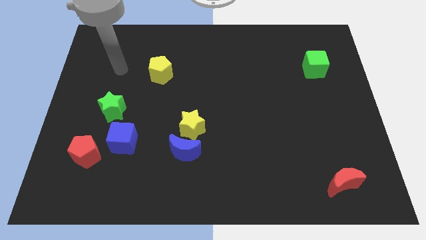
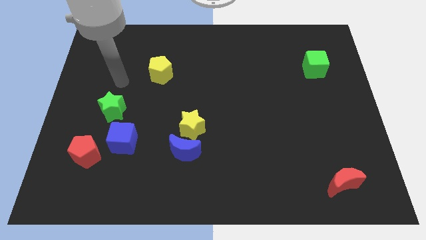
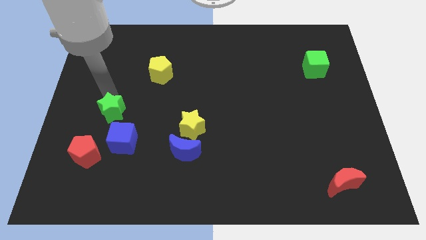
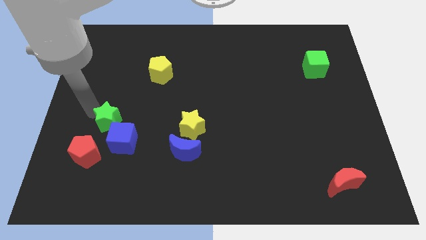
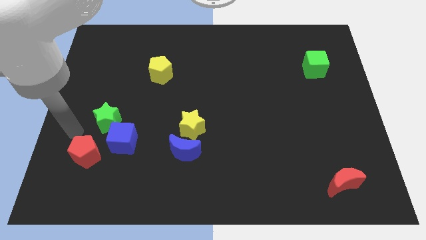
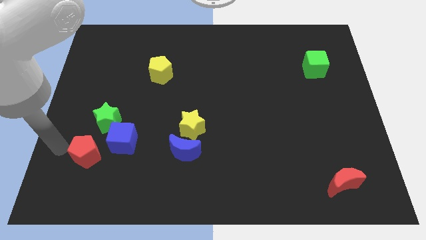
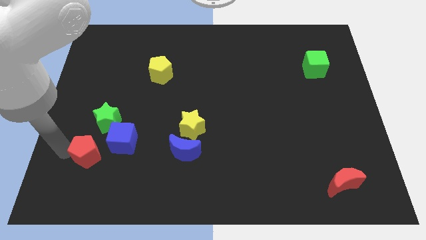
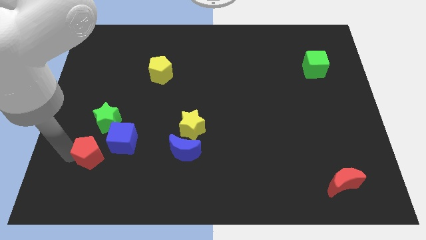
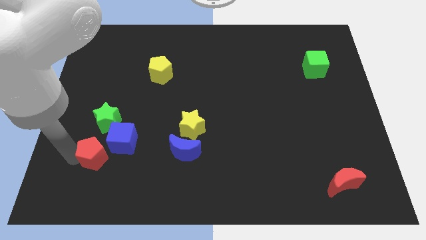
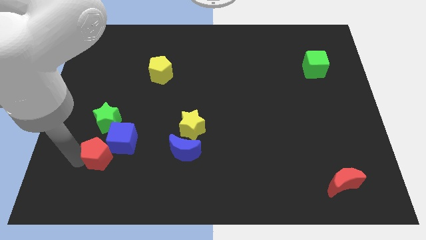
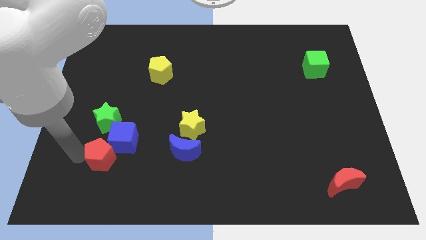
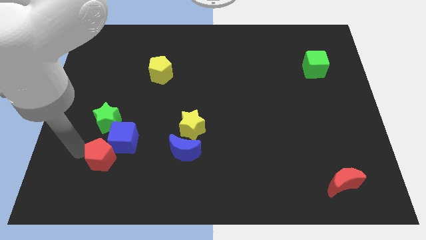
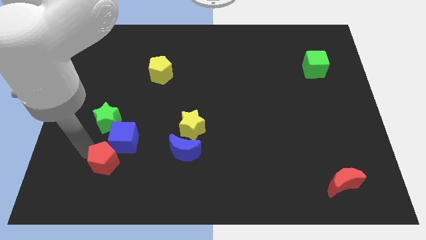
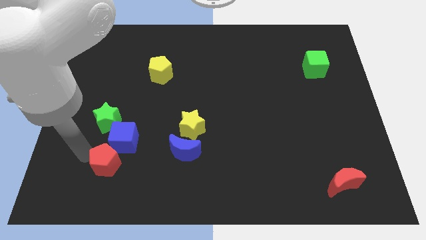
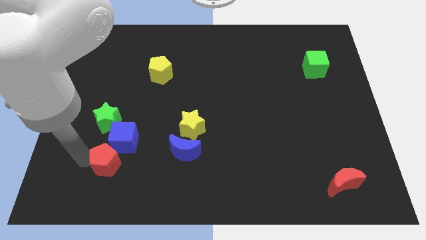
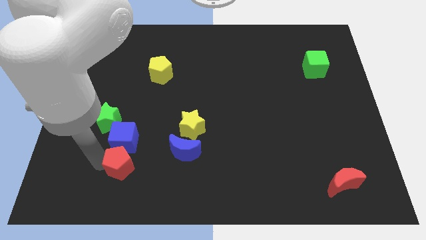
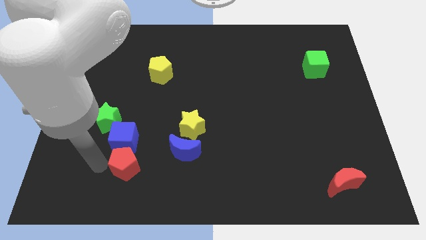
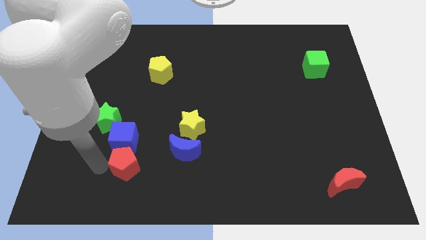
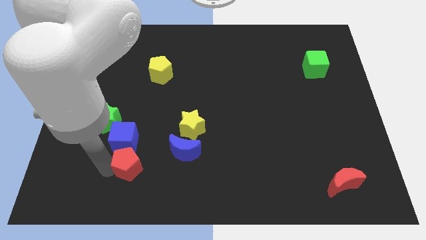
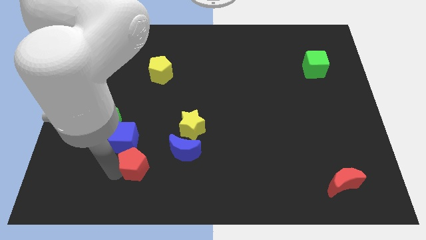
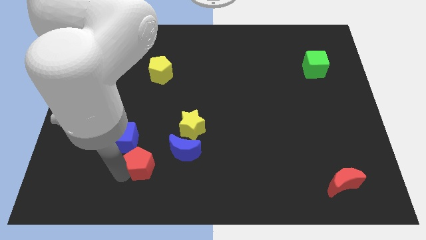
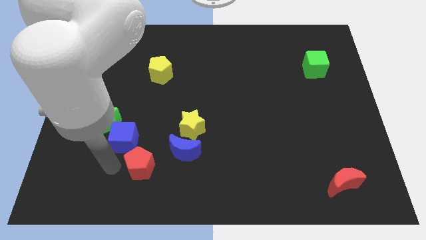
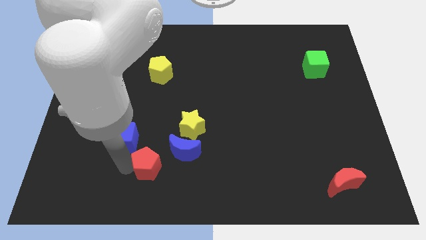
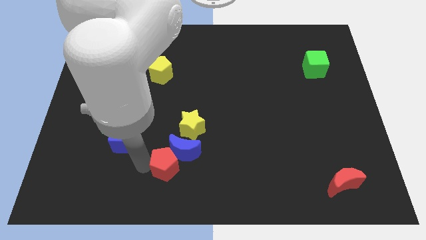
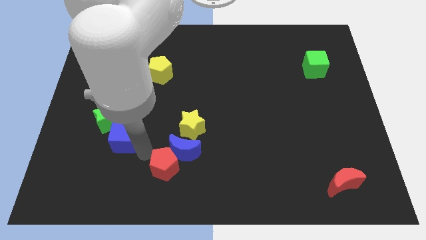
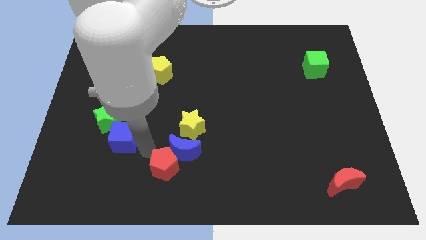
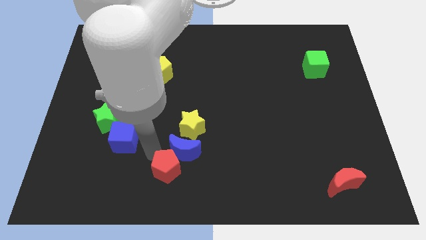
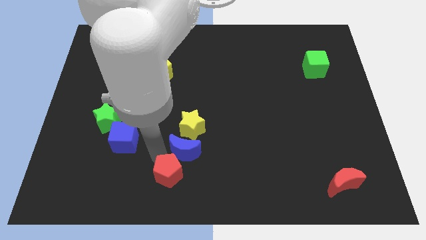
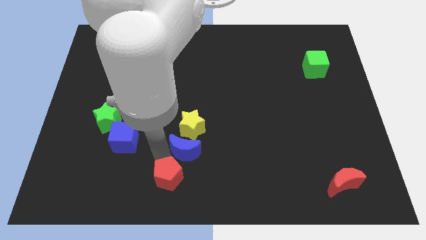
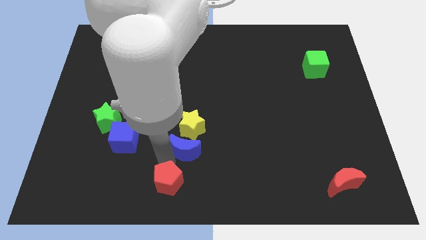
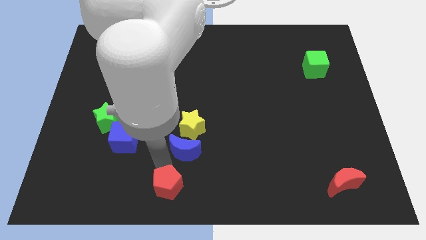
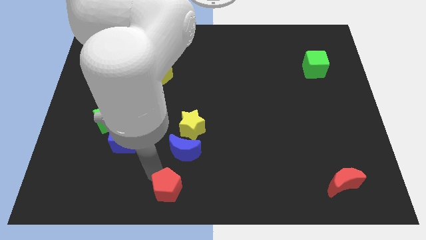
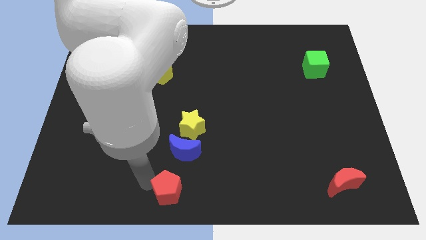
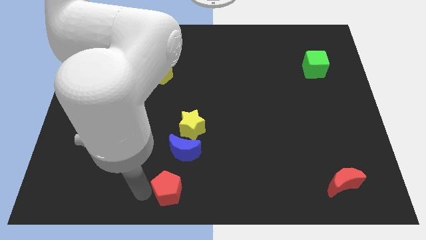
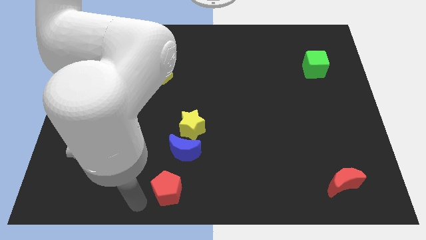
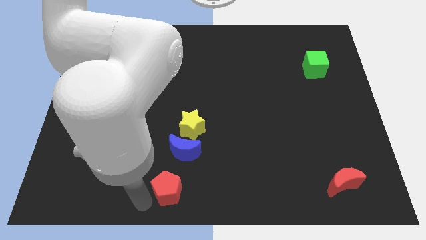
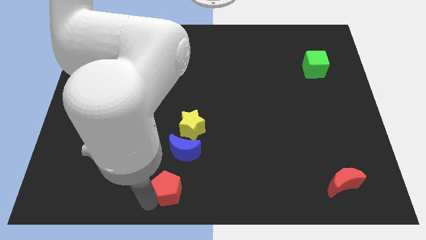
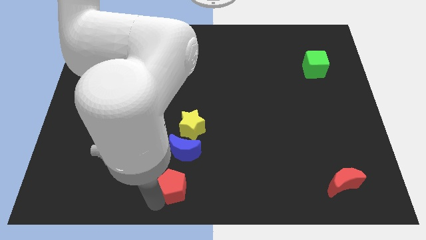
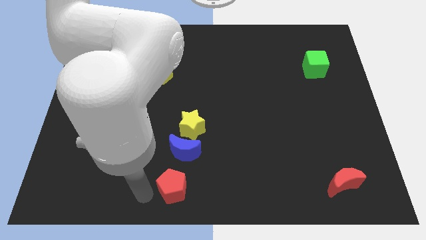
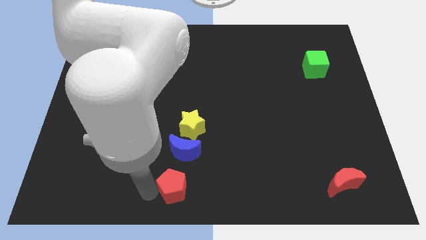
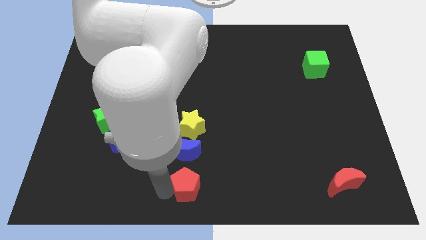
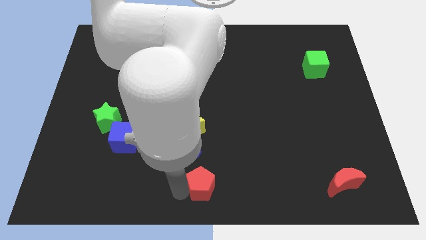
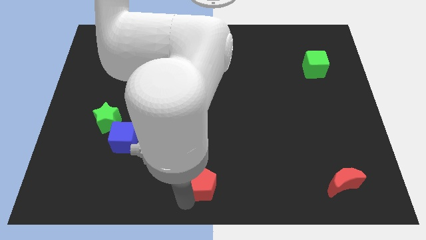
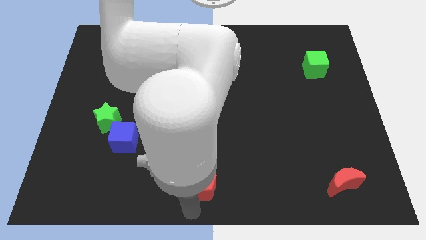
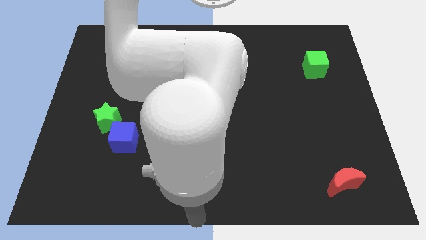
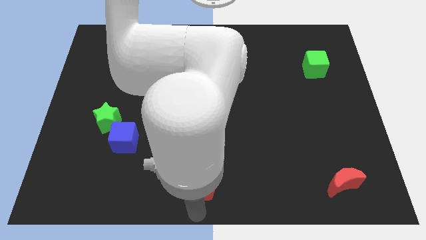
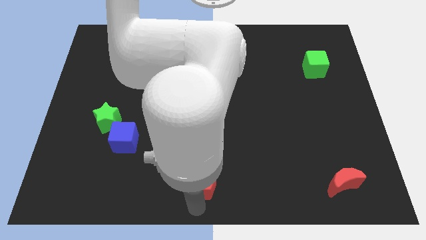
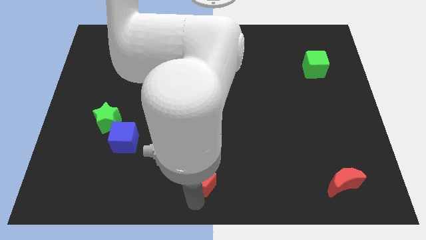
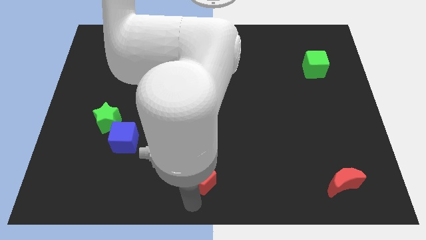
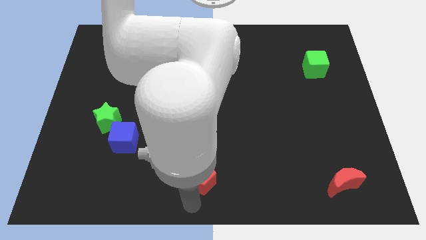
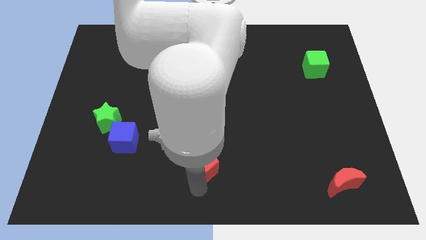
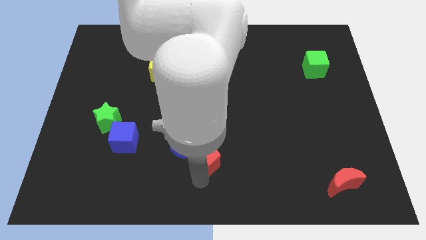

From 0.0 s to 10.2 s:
push the red pentagon to the bottom right of the yellow star

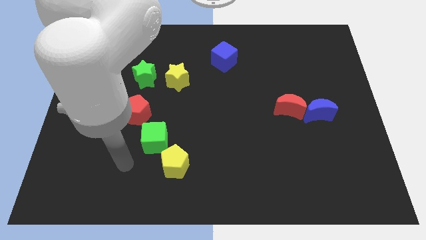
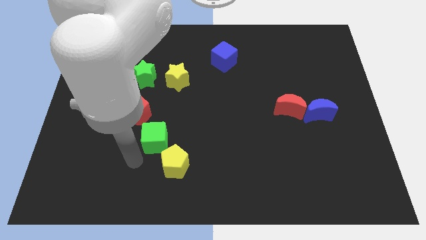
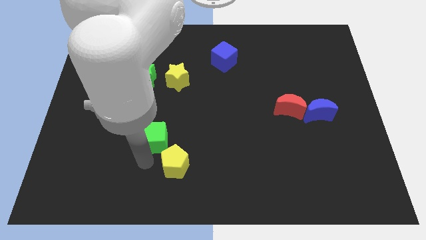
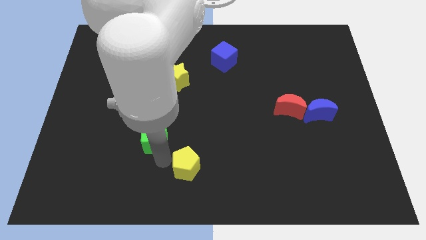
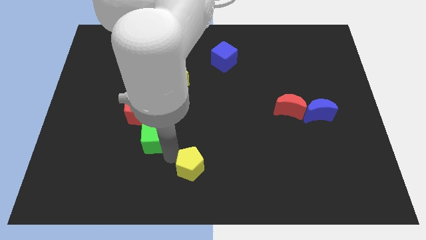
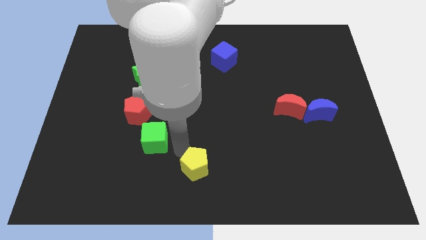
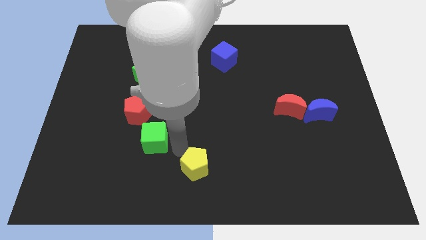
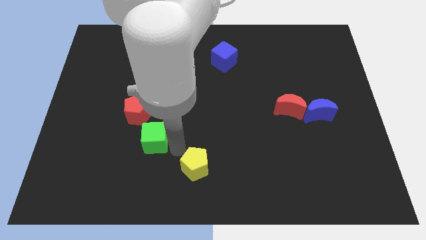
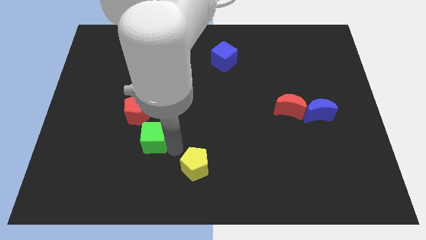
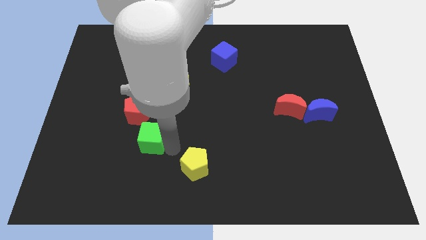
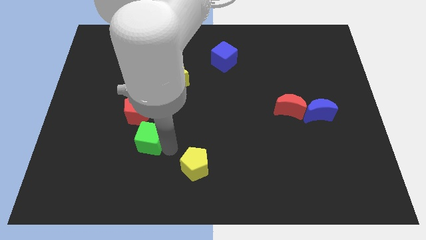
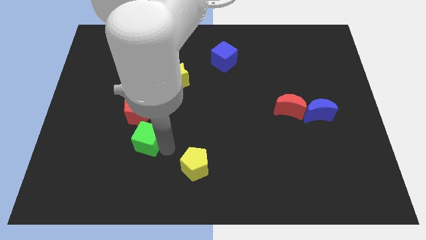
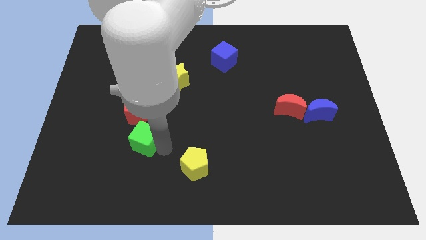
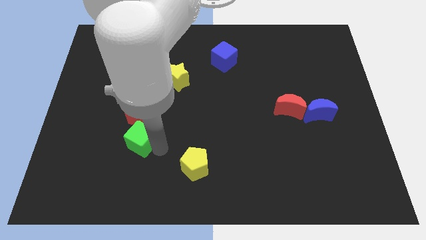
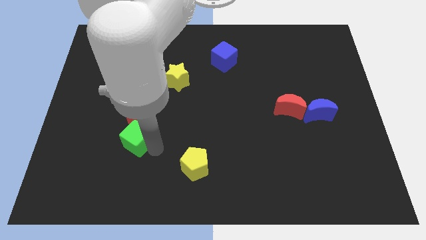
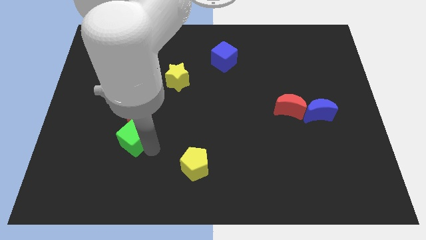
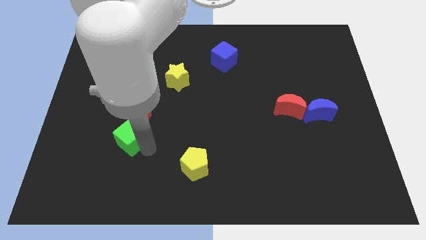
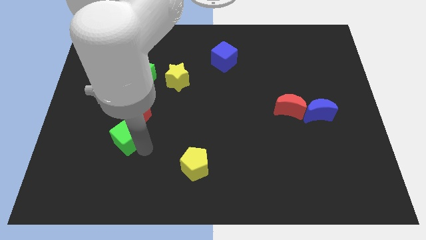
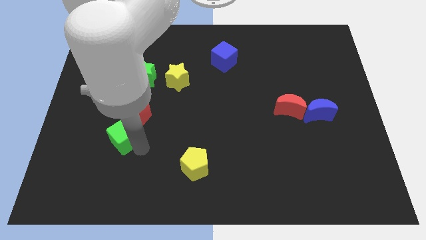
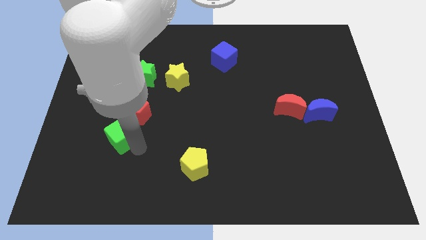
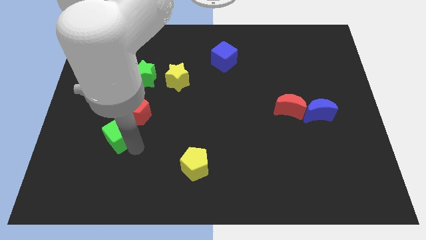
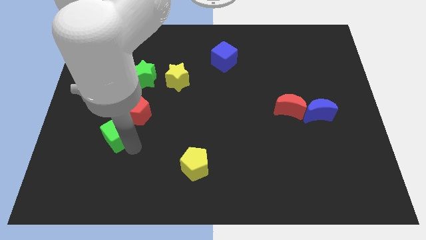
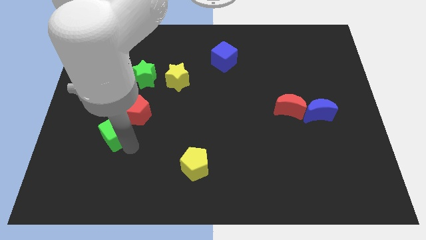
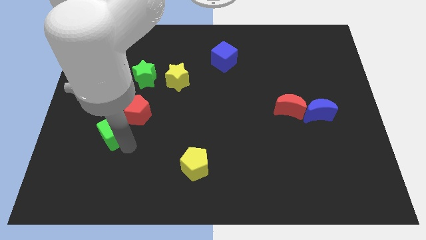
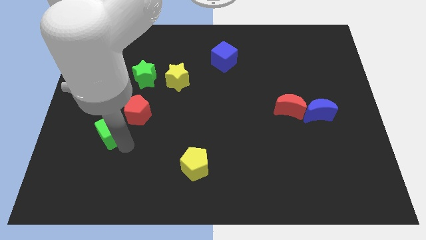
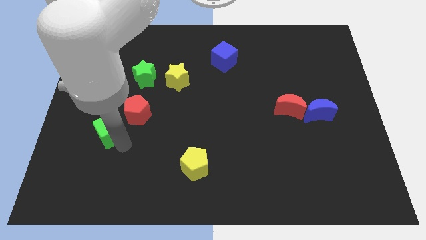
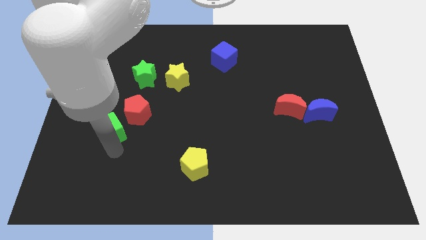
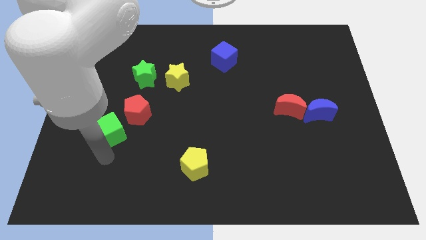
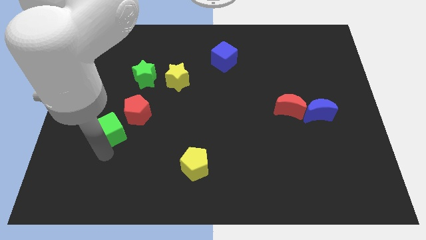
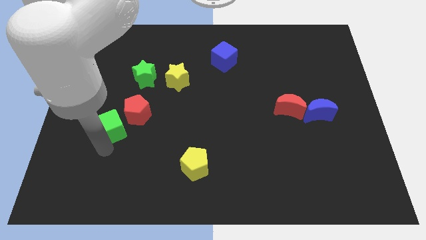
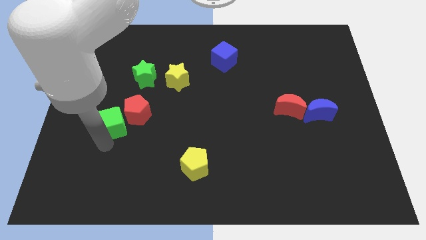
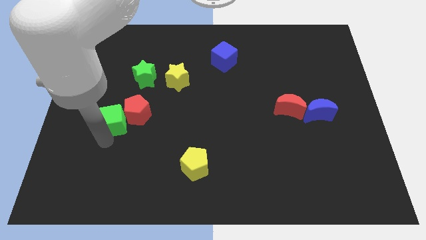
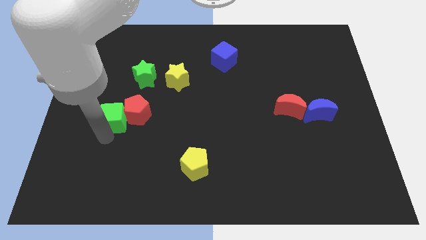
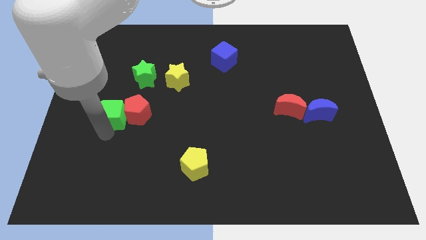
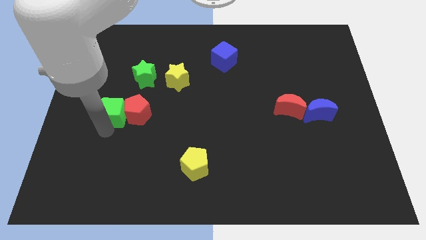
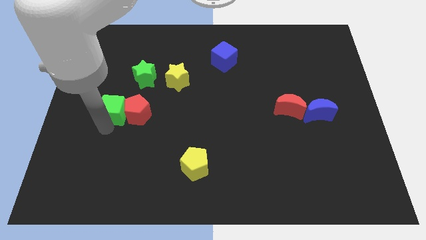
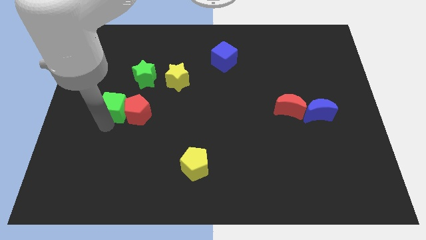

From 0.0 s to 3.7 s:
move the green cube to the bottom left side of the green star
